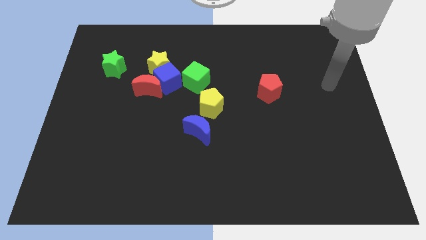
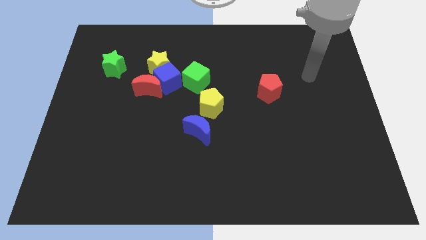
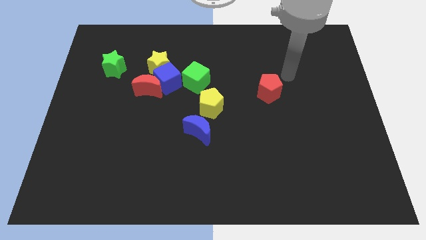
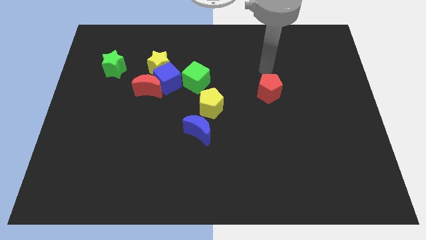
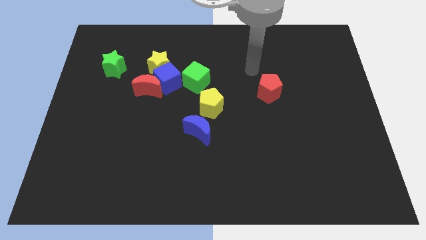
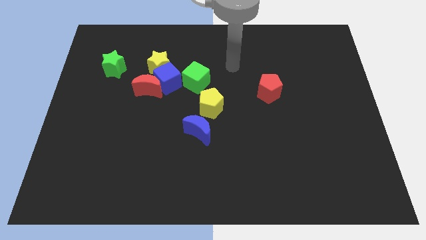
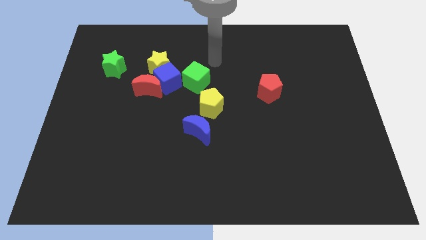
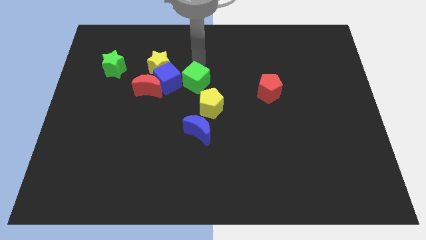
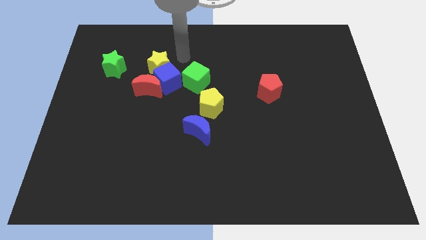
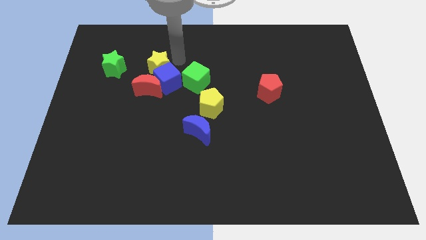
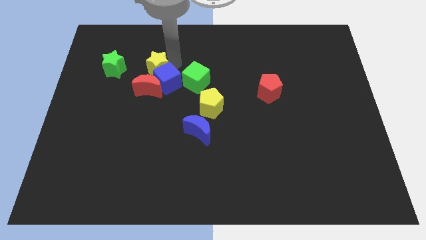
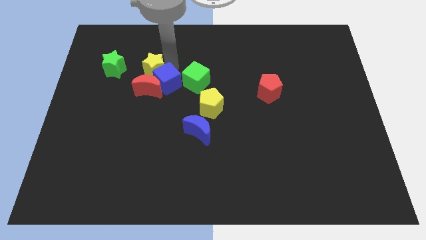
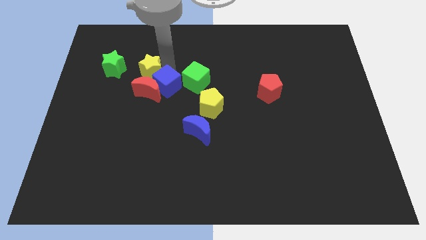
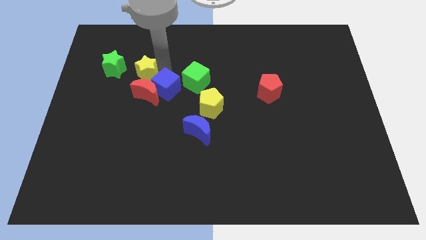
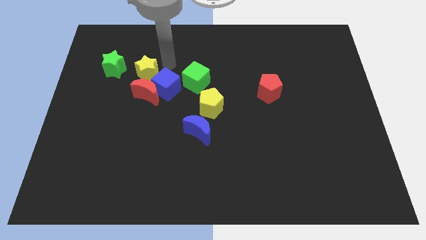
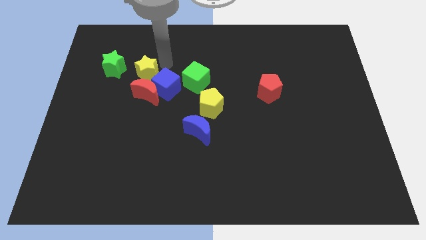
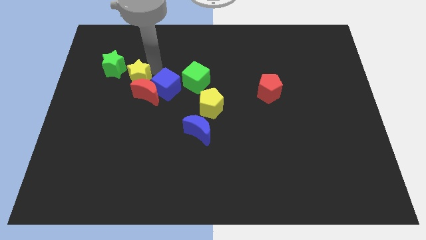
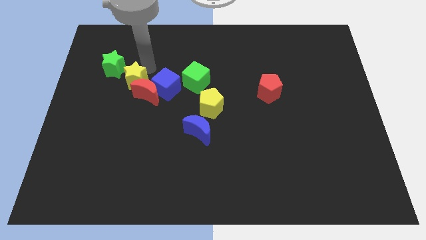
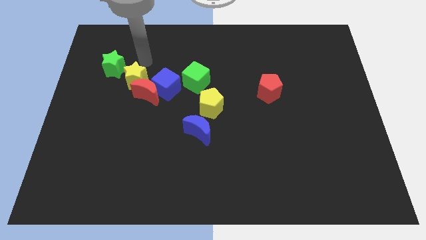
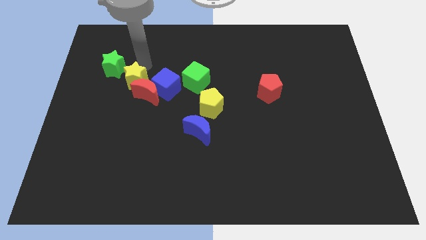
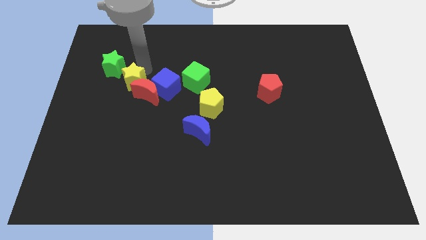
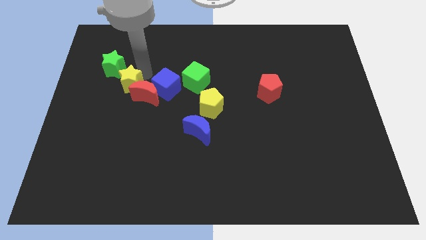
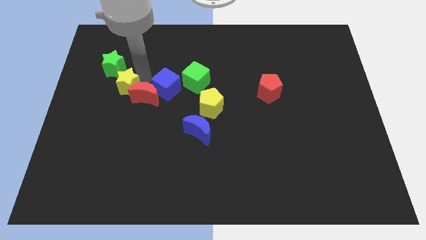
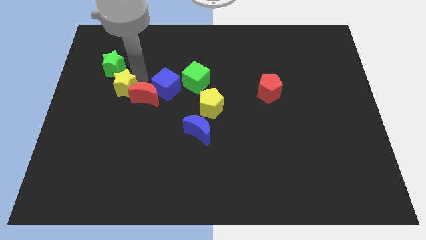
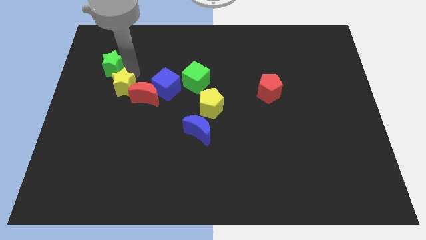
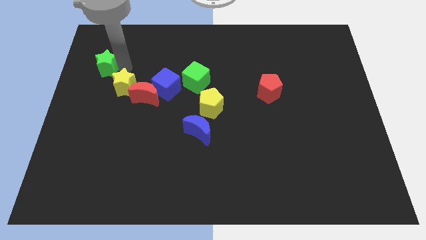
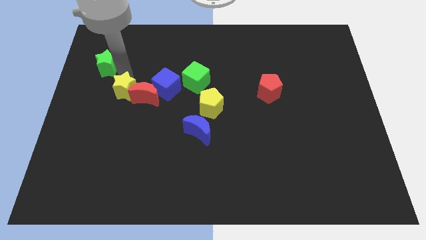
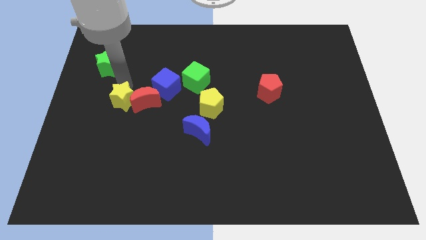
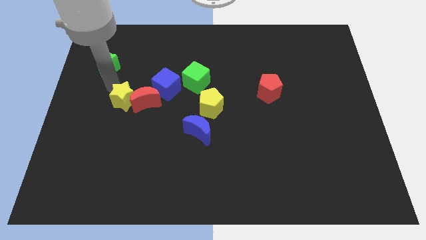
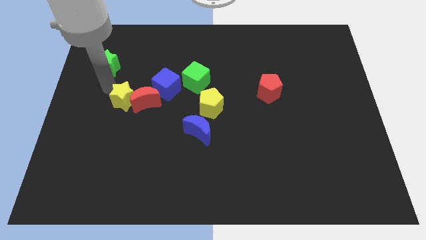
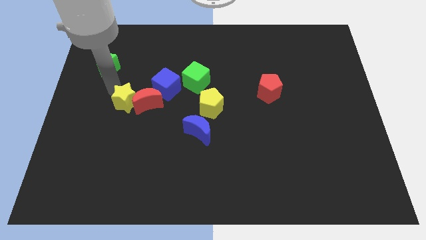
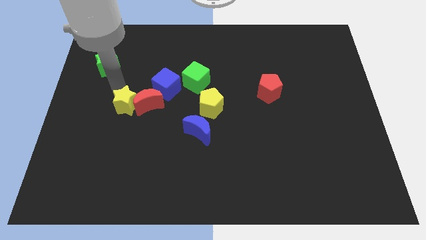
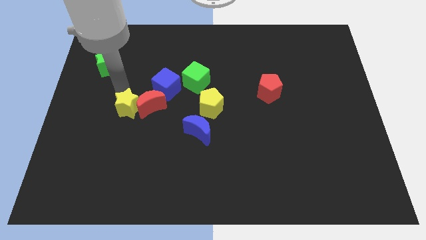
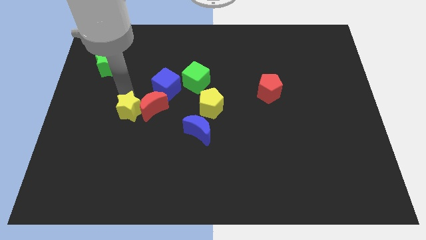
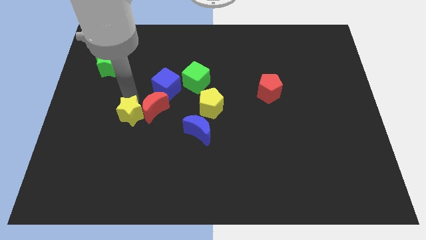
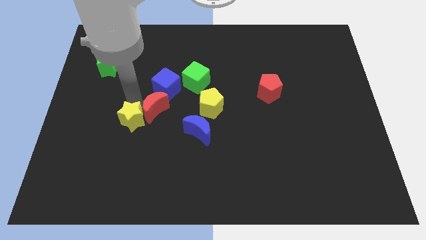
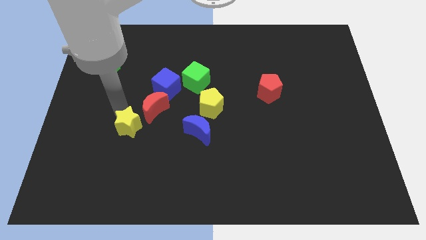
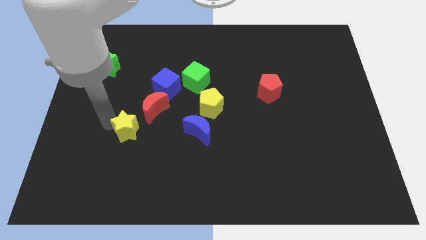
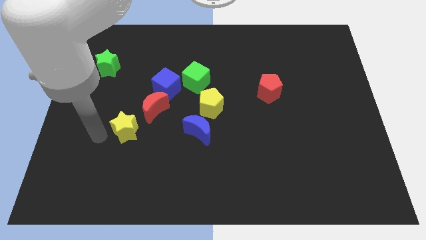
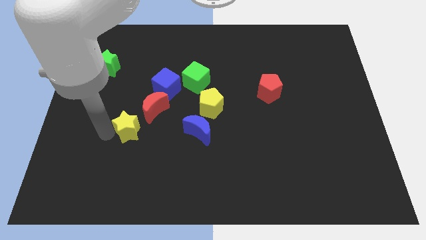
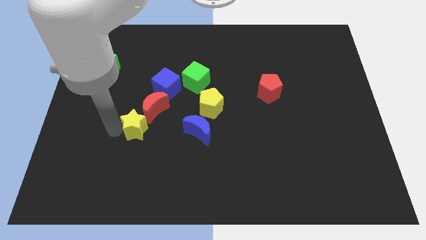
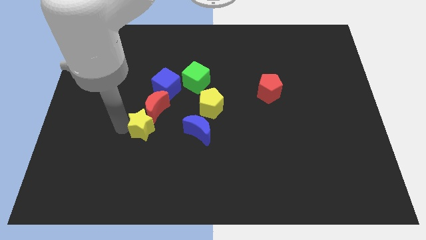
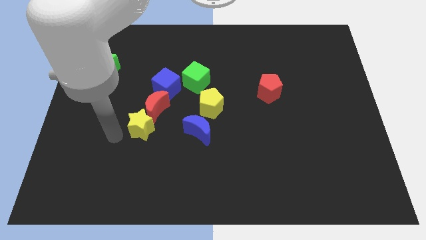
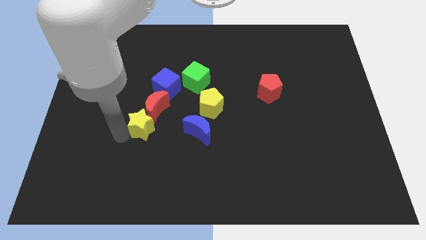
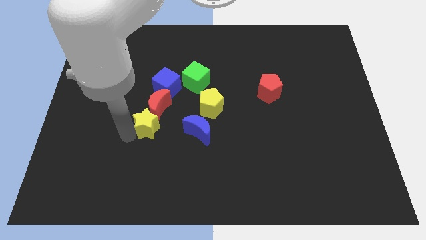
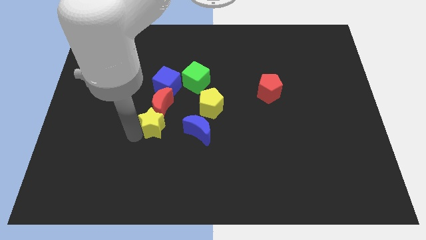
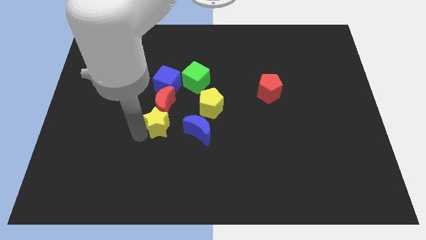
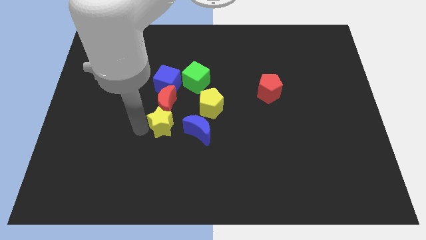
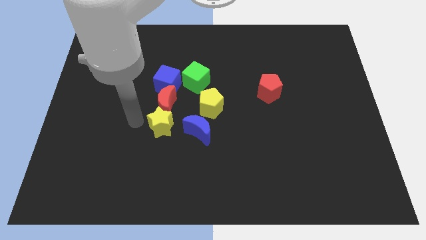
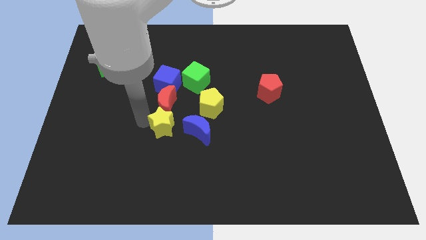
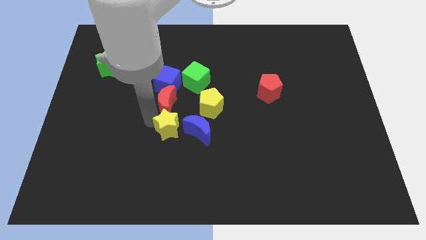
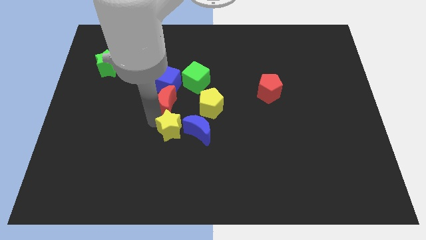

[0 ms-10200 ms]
put the yellow star close to the blue moon
